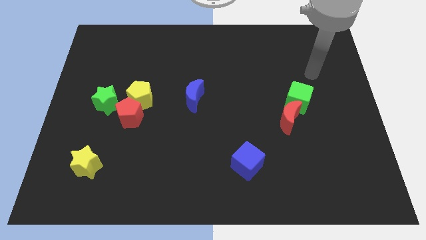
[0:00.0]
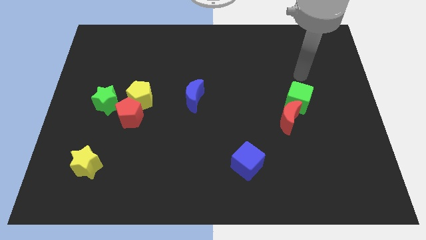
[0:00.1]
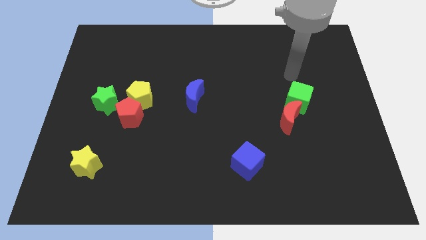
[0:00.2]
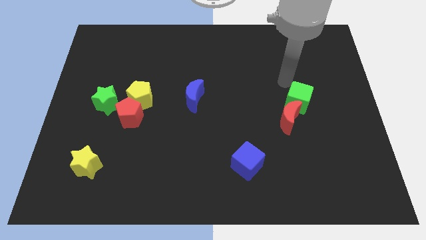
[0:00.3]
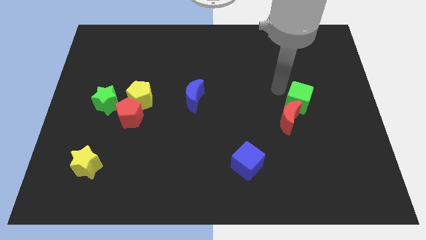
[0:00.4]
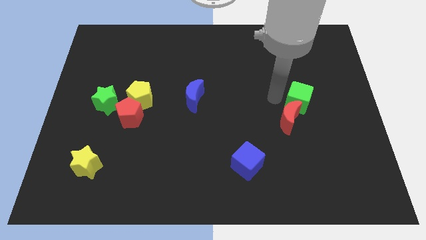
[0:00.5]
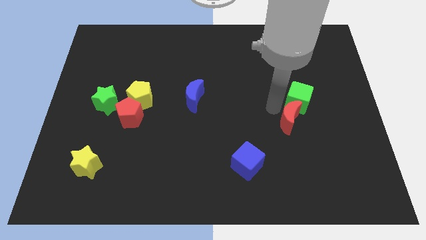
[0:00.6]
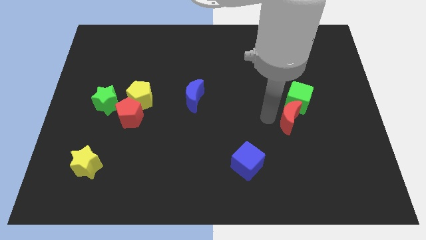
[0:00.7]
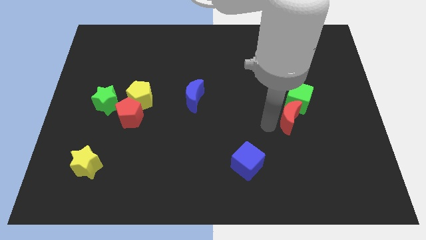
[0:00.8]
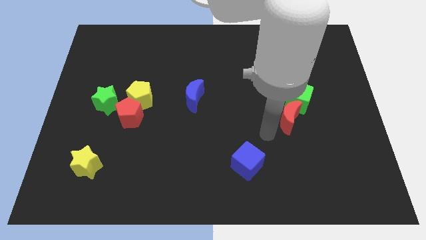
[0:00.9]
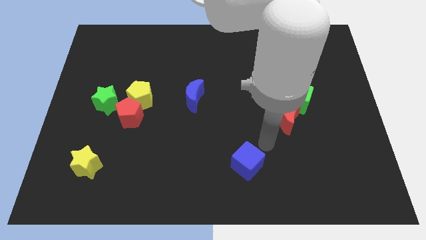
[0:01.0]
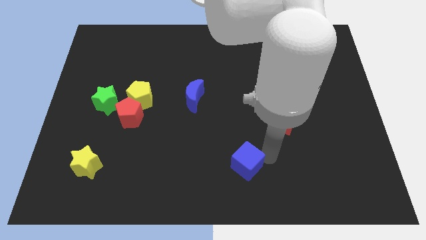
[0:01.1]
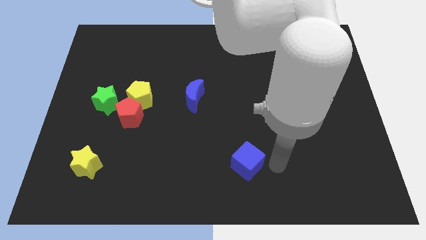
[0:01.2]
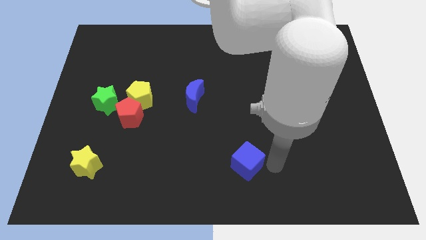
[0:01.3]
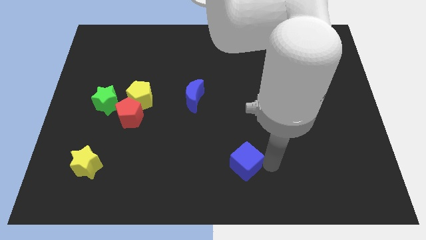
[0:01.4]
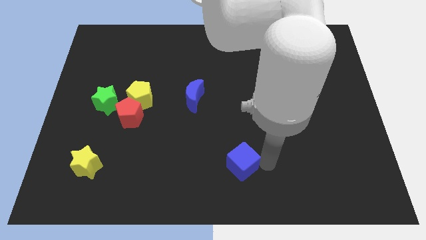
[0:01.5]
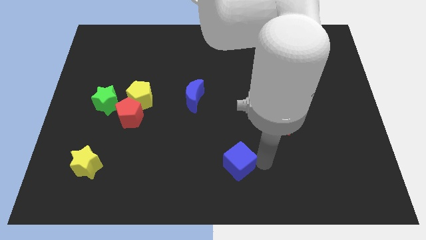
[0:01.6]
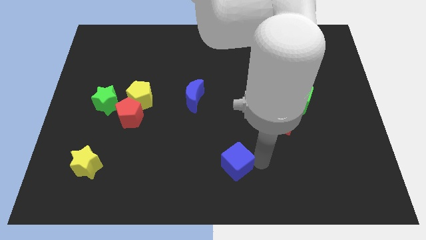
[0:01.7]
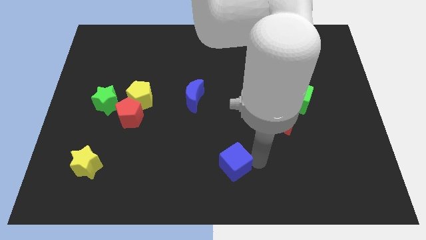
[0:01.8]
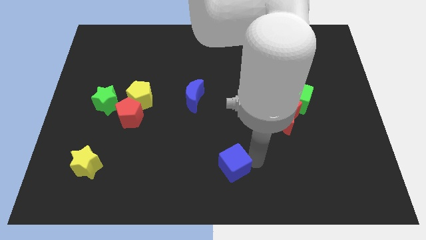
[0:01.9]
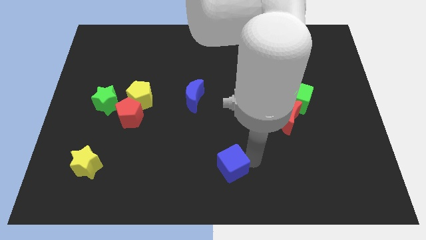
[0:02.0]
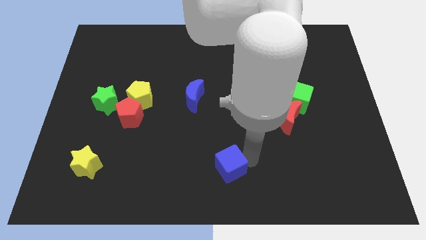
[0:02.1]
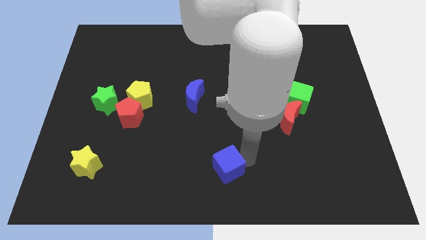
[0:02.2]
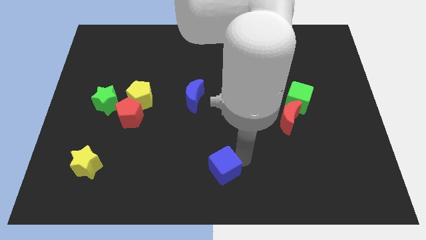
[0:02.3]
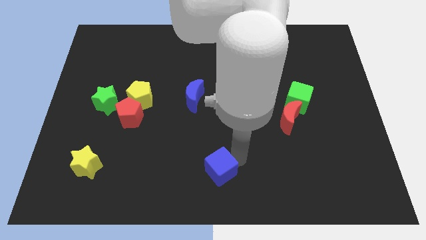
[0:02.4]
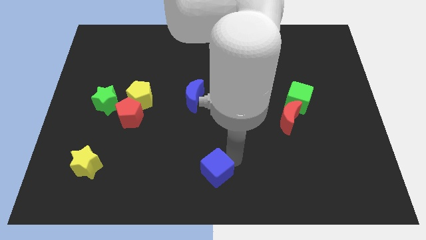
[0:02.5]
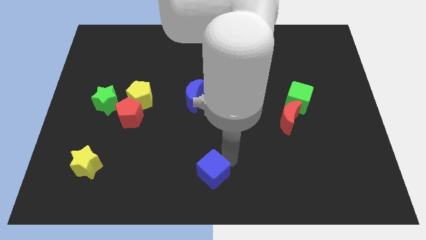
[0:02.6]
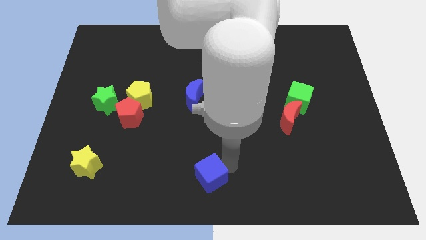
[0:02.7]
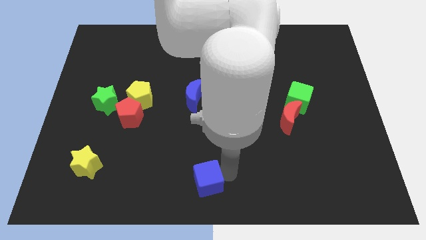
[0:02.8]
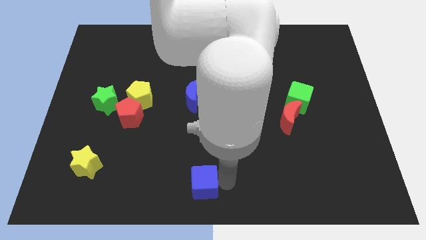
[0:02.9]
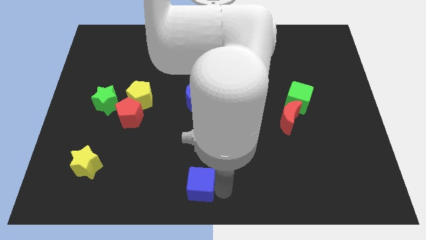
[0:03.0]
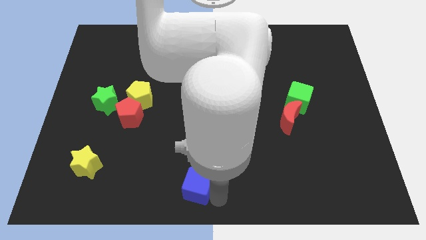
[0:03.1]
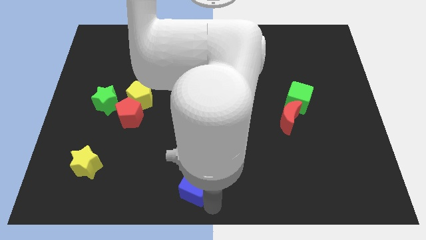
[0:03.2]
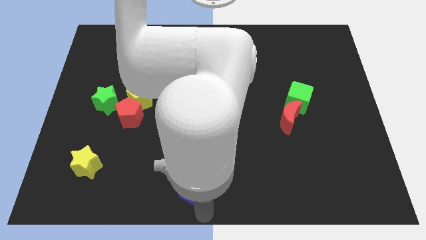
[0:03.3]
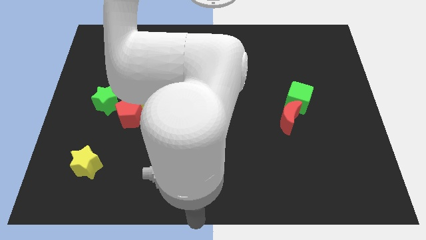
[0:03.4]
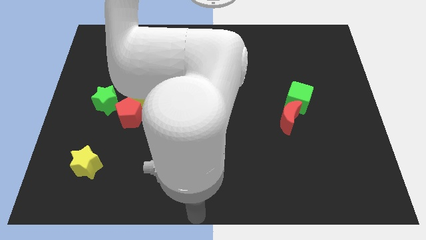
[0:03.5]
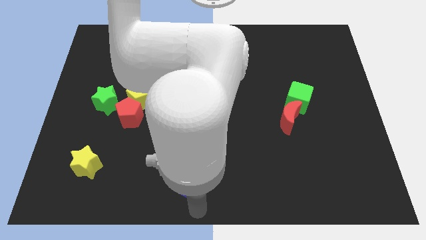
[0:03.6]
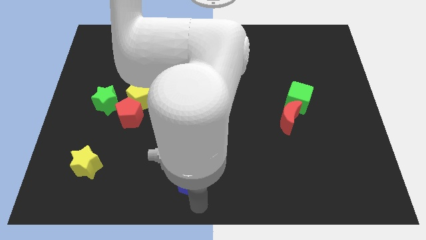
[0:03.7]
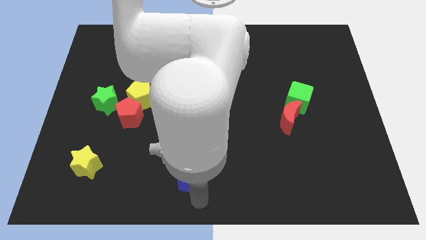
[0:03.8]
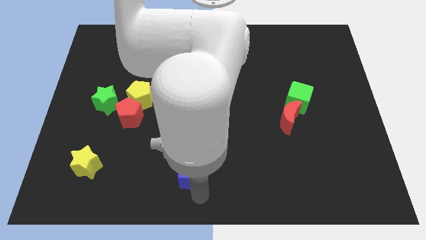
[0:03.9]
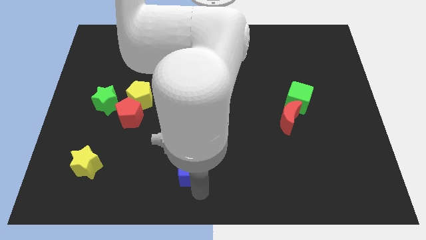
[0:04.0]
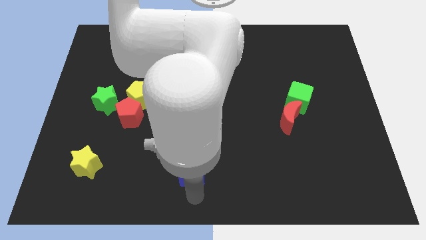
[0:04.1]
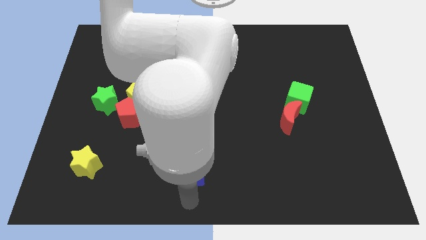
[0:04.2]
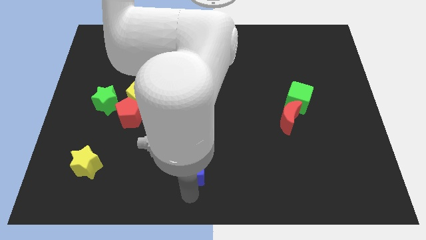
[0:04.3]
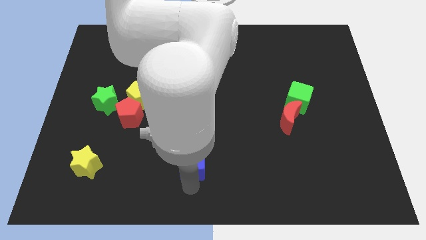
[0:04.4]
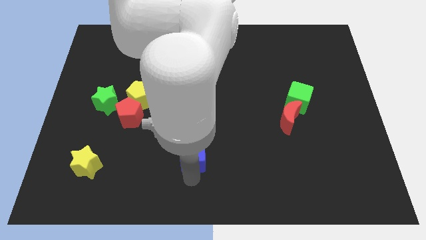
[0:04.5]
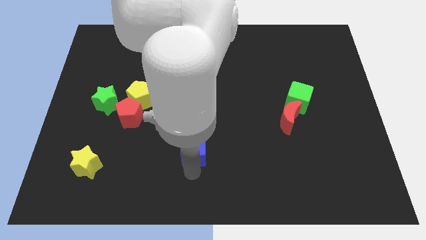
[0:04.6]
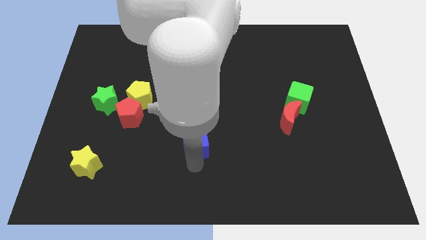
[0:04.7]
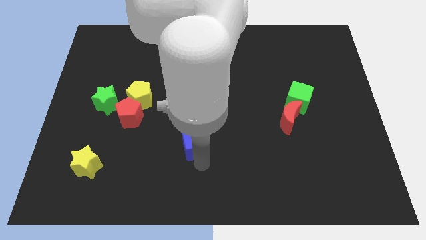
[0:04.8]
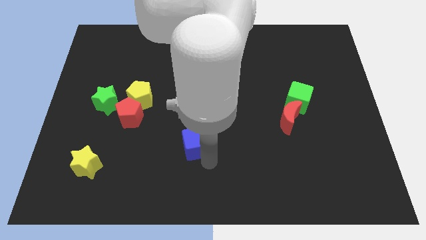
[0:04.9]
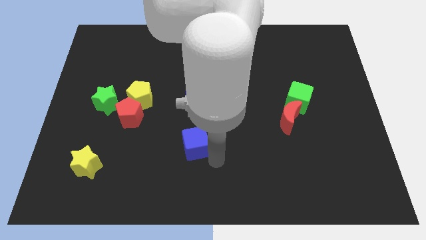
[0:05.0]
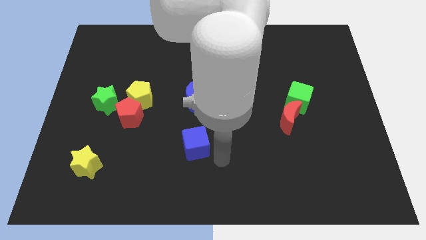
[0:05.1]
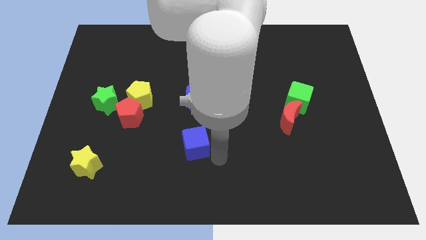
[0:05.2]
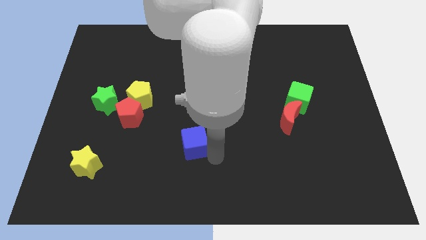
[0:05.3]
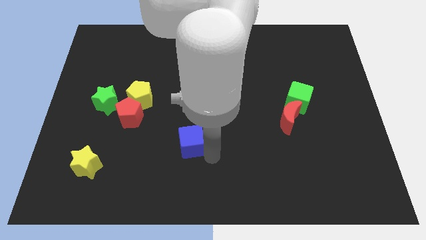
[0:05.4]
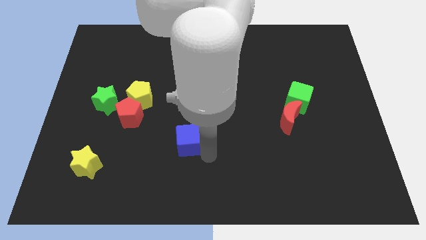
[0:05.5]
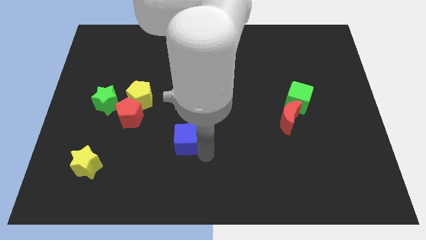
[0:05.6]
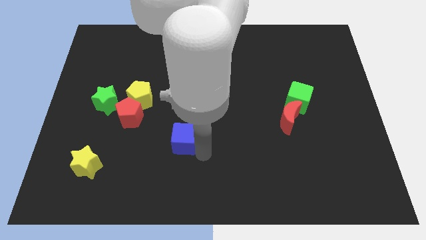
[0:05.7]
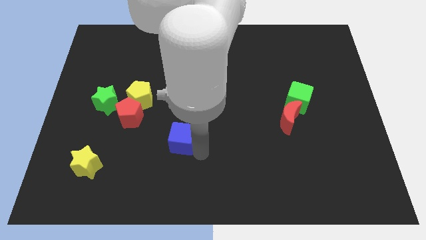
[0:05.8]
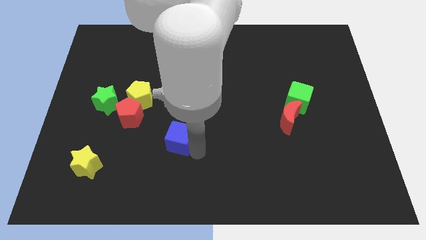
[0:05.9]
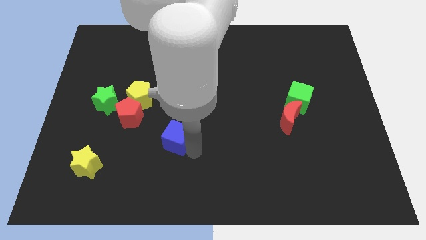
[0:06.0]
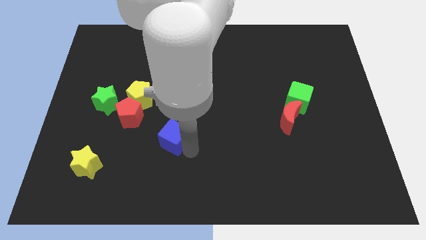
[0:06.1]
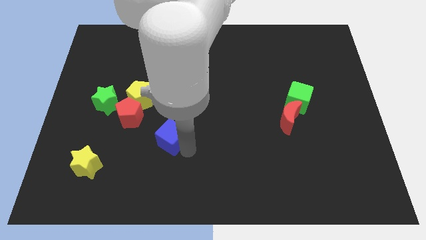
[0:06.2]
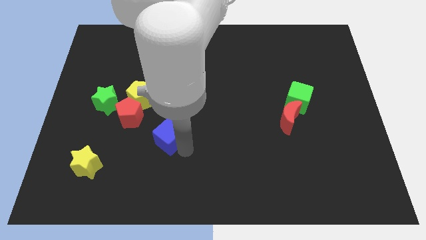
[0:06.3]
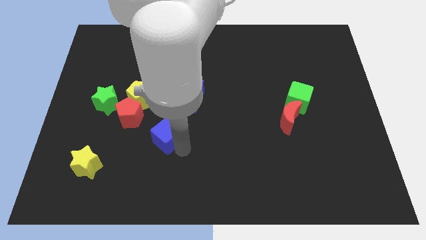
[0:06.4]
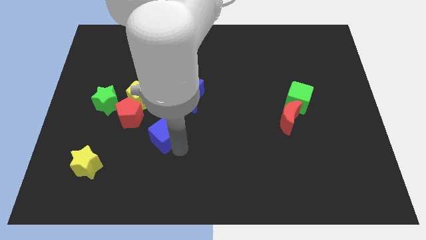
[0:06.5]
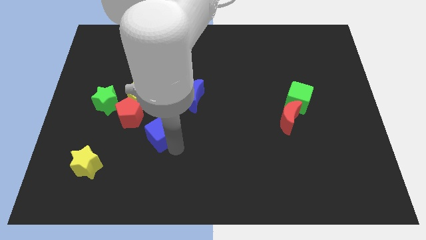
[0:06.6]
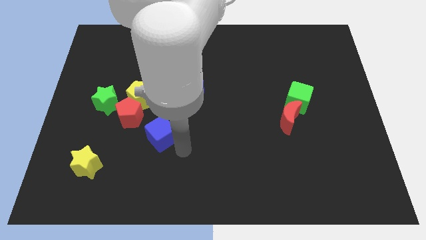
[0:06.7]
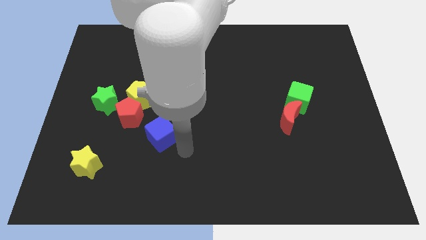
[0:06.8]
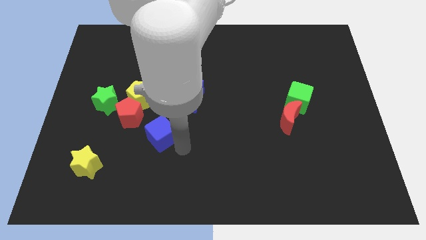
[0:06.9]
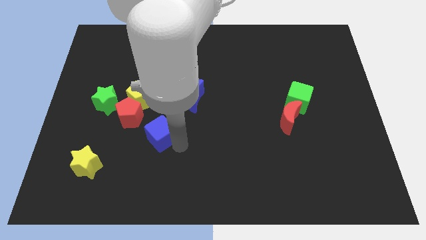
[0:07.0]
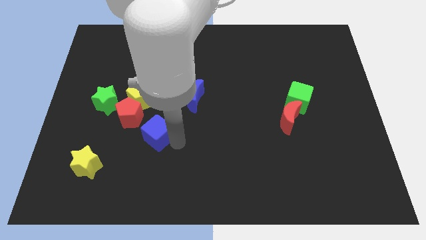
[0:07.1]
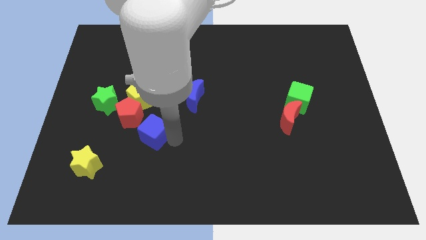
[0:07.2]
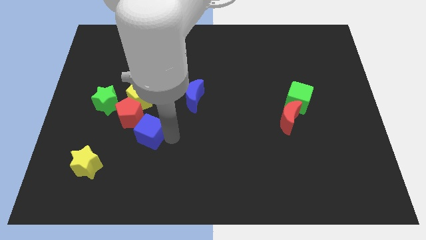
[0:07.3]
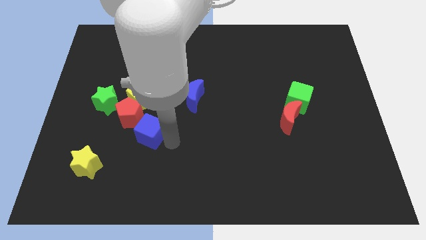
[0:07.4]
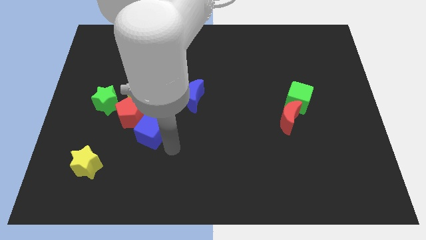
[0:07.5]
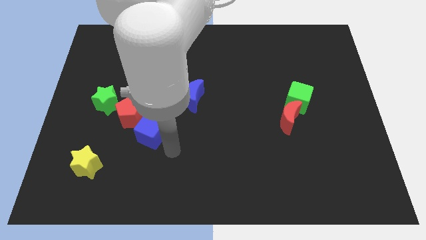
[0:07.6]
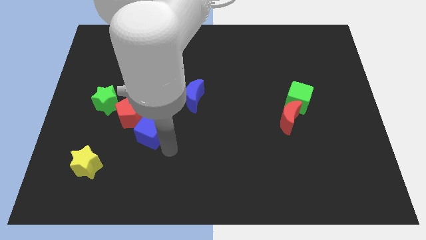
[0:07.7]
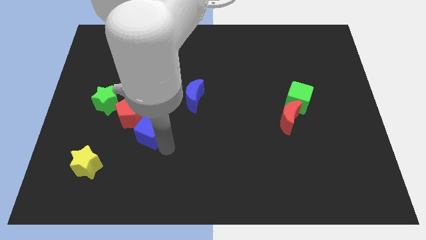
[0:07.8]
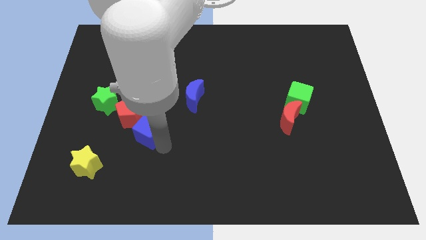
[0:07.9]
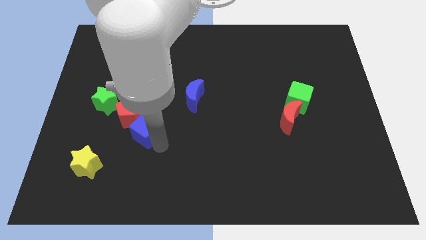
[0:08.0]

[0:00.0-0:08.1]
move the blue cube next to the red pentagon
